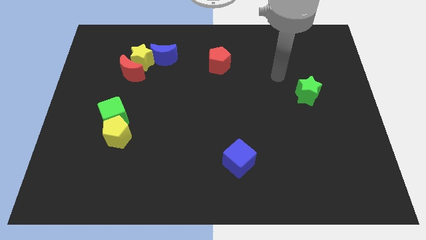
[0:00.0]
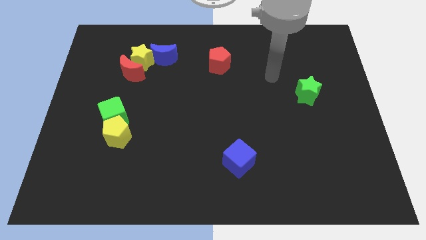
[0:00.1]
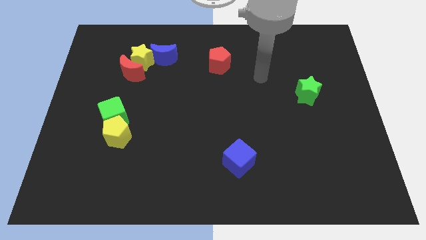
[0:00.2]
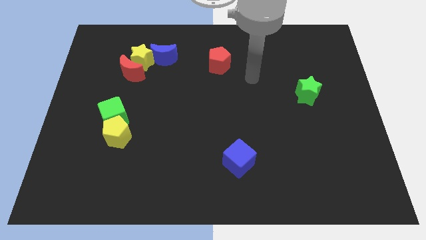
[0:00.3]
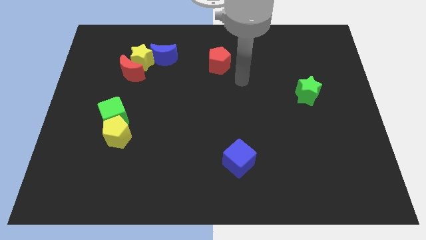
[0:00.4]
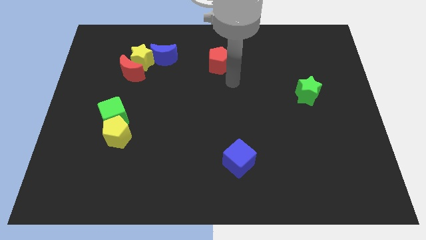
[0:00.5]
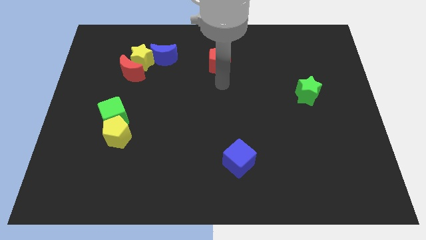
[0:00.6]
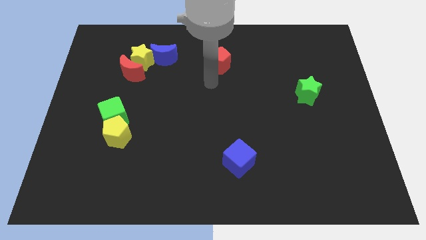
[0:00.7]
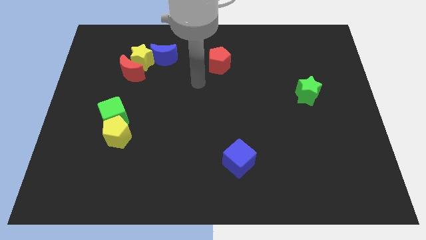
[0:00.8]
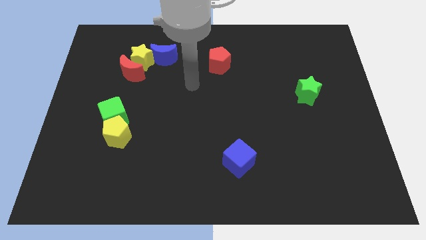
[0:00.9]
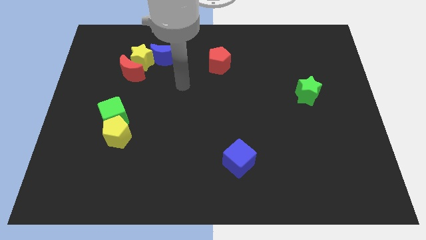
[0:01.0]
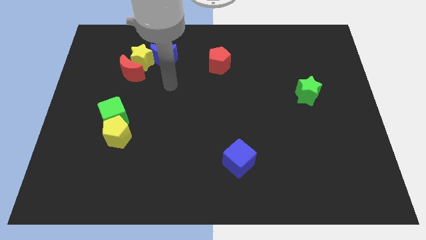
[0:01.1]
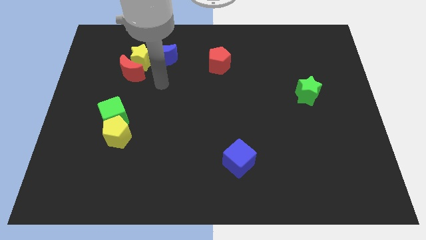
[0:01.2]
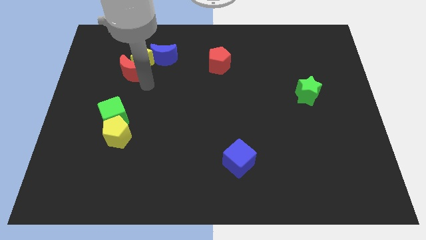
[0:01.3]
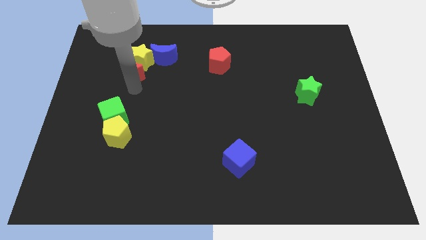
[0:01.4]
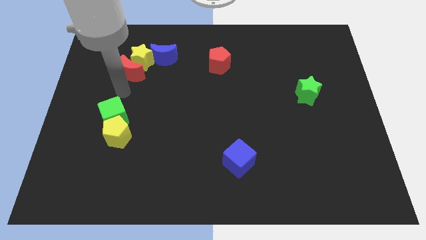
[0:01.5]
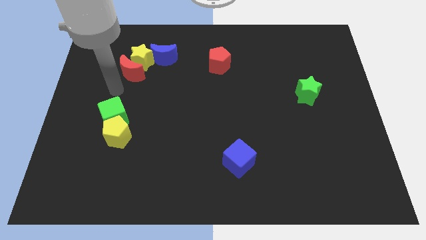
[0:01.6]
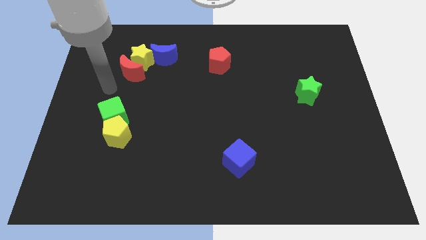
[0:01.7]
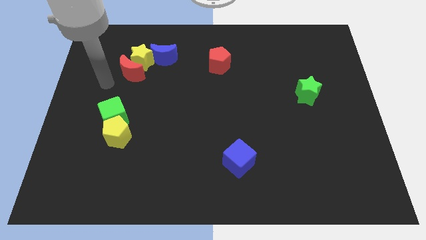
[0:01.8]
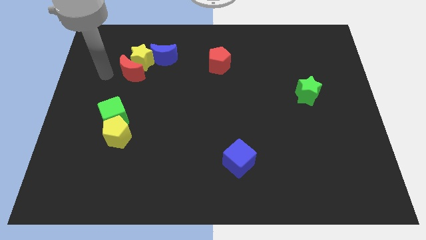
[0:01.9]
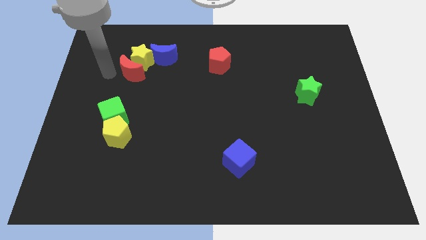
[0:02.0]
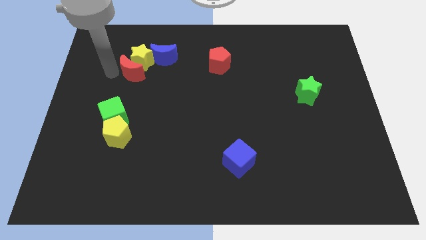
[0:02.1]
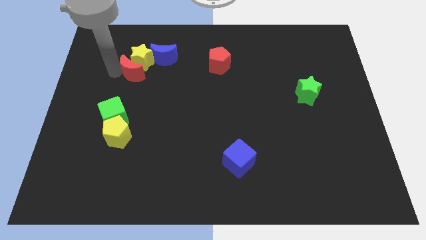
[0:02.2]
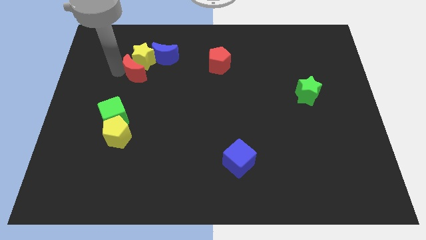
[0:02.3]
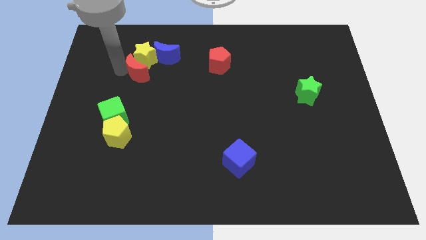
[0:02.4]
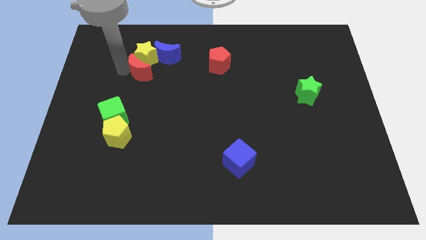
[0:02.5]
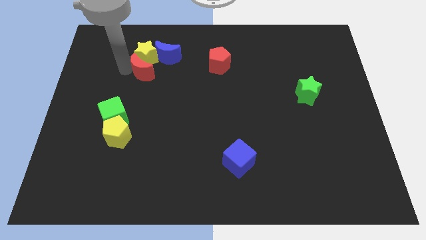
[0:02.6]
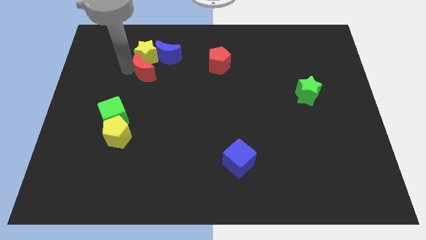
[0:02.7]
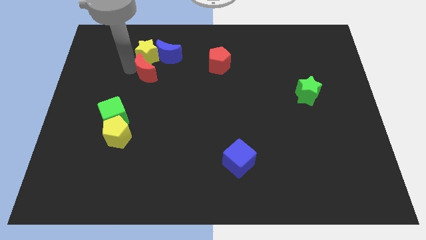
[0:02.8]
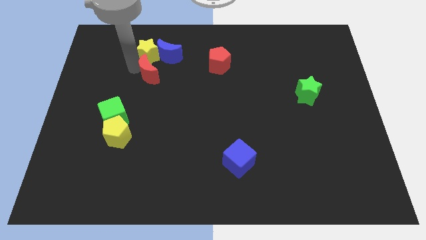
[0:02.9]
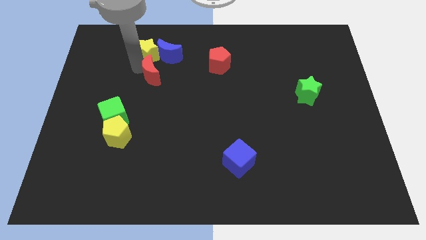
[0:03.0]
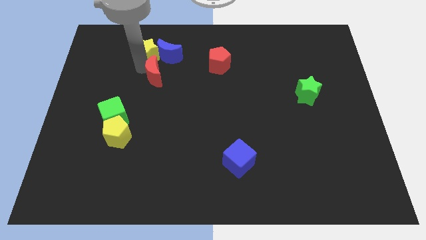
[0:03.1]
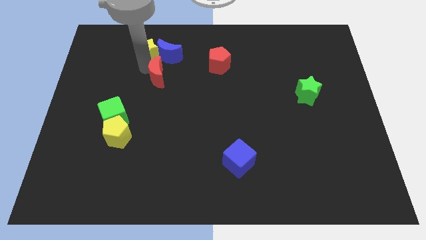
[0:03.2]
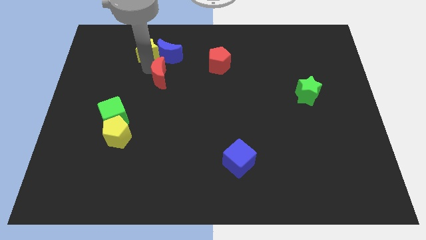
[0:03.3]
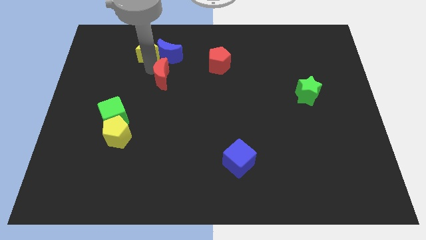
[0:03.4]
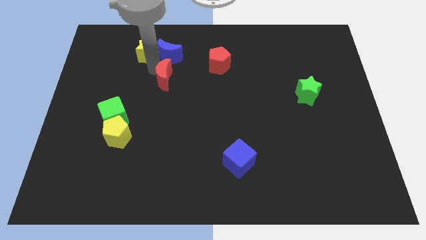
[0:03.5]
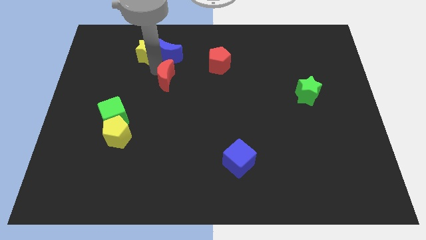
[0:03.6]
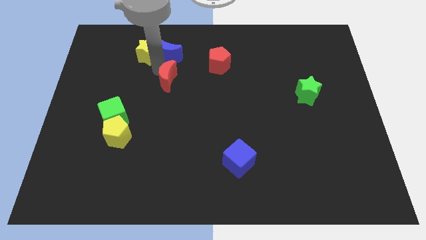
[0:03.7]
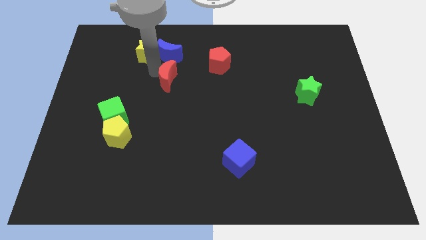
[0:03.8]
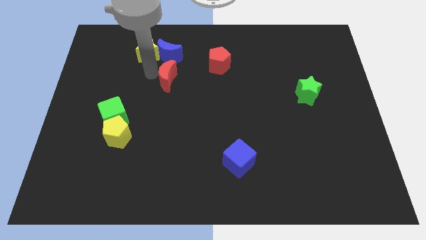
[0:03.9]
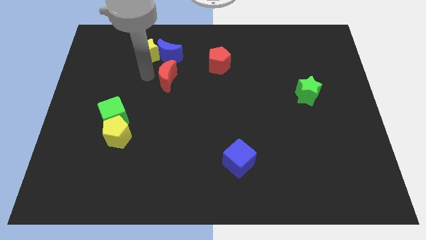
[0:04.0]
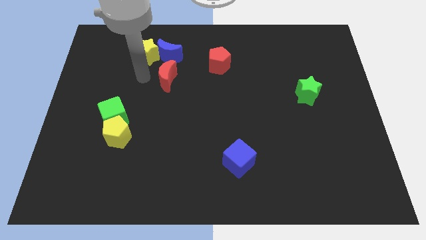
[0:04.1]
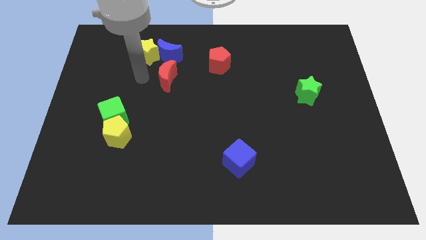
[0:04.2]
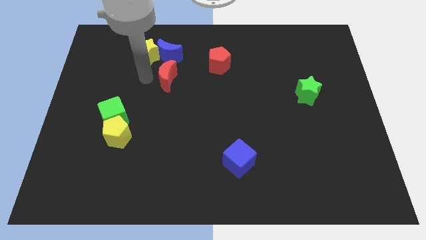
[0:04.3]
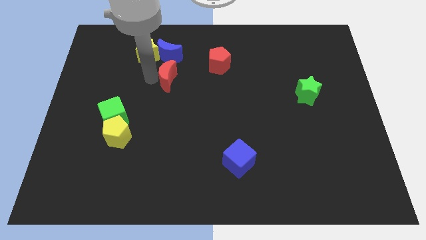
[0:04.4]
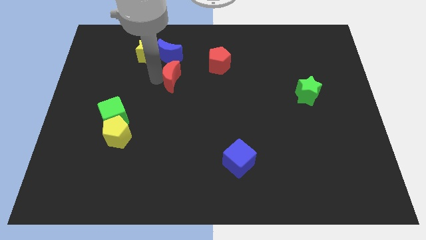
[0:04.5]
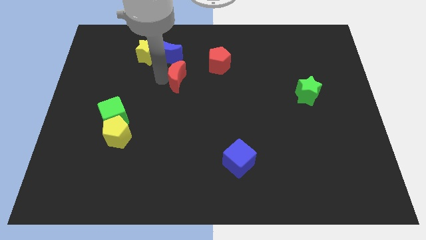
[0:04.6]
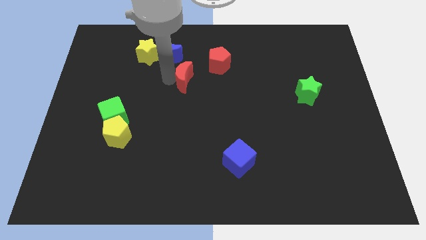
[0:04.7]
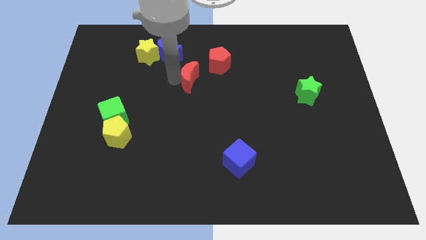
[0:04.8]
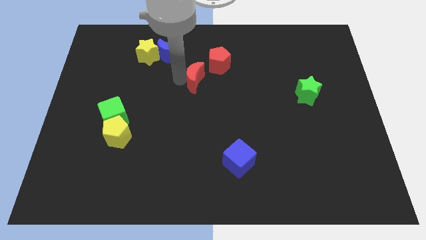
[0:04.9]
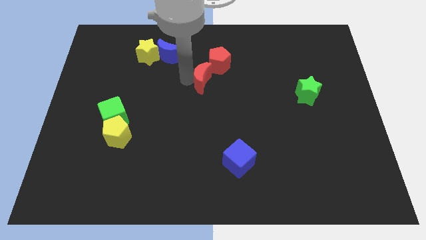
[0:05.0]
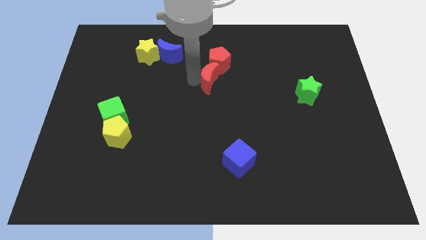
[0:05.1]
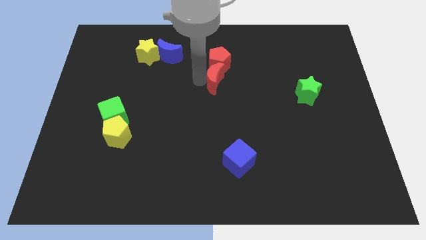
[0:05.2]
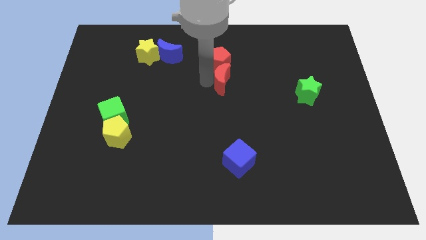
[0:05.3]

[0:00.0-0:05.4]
slide the red moon to the bottom right of the red pentagon

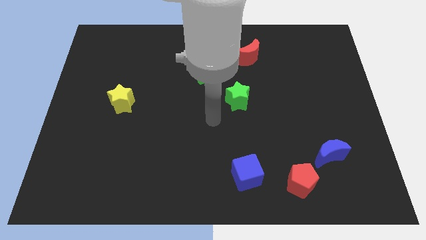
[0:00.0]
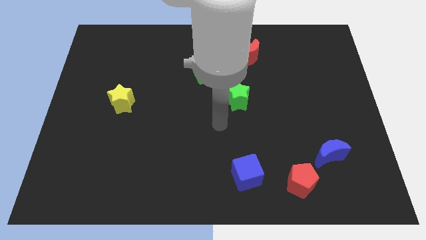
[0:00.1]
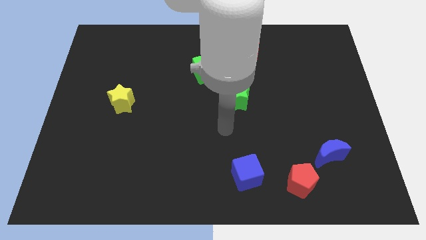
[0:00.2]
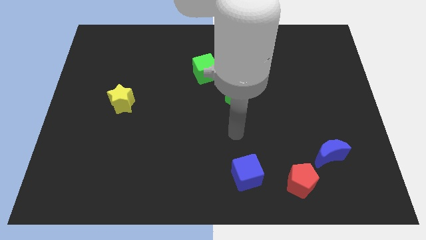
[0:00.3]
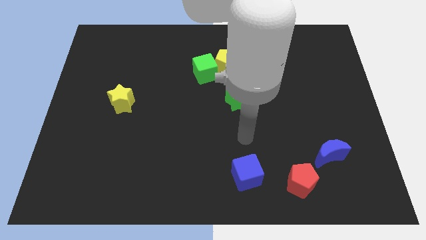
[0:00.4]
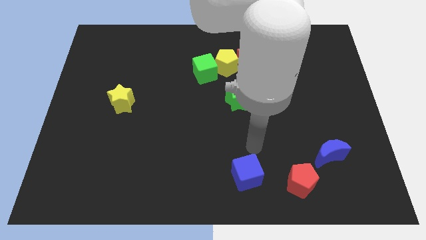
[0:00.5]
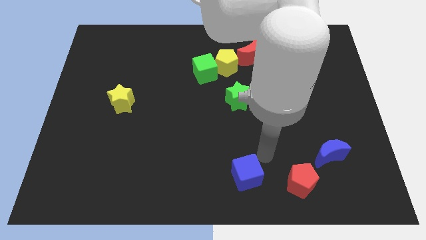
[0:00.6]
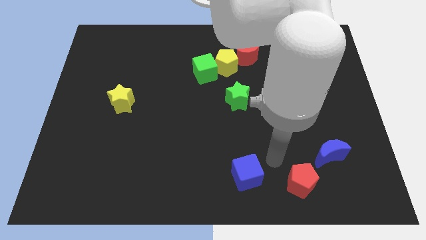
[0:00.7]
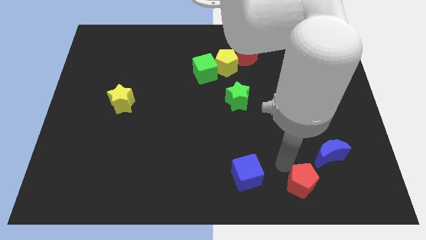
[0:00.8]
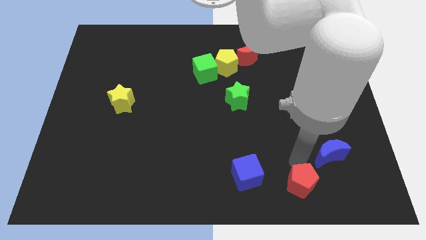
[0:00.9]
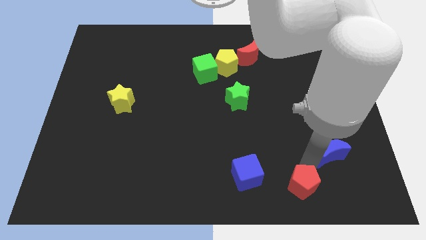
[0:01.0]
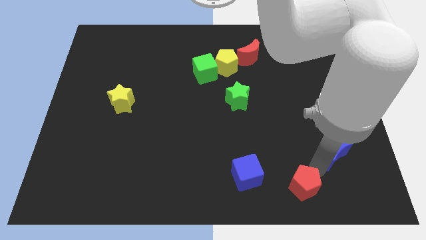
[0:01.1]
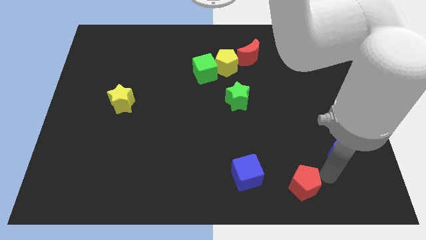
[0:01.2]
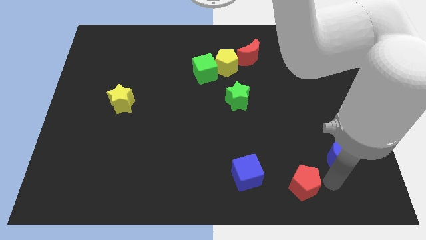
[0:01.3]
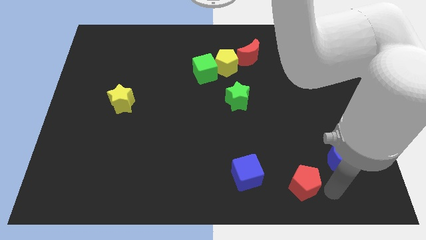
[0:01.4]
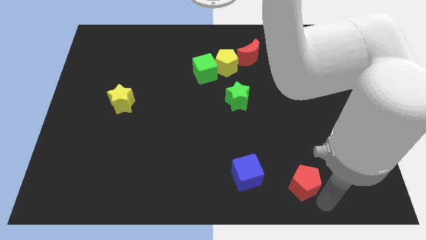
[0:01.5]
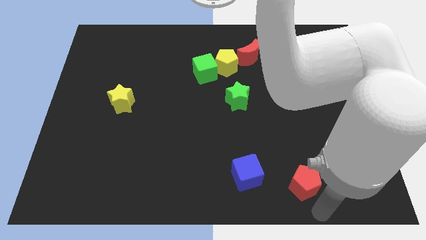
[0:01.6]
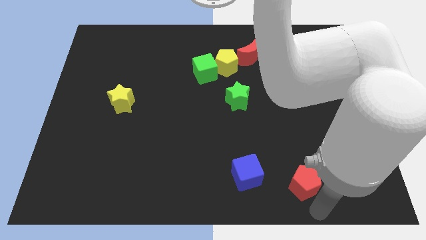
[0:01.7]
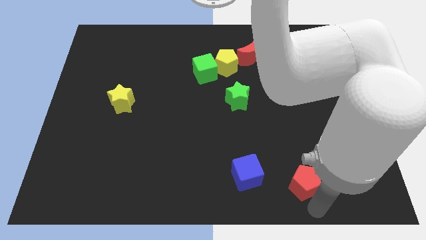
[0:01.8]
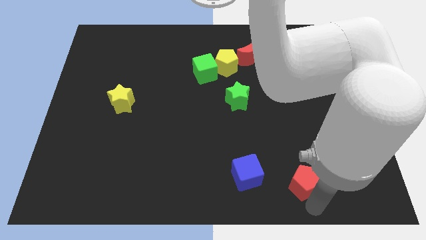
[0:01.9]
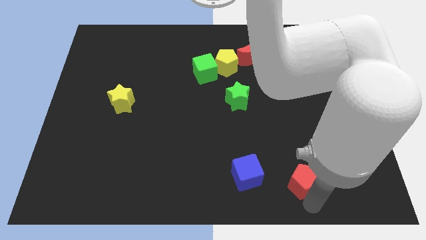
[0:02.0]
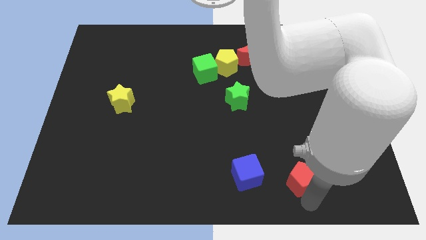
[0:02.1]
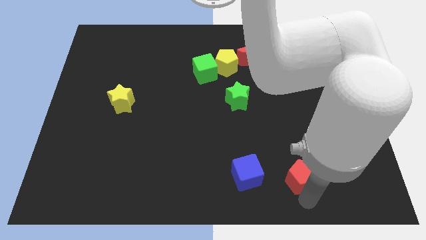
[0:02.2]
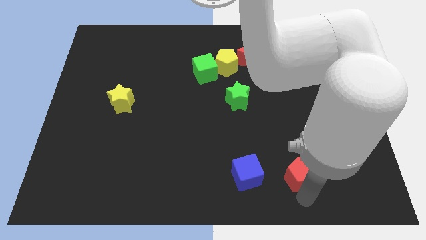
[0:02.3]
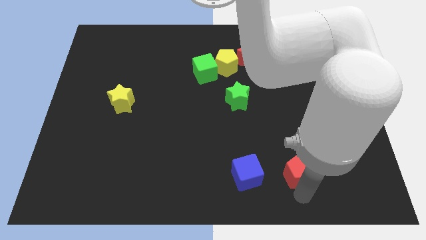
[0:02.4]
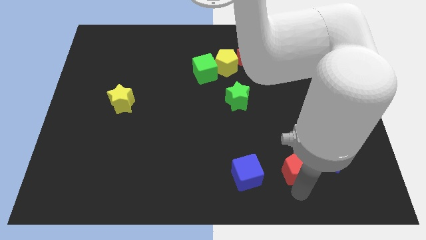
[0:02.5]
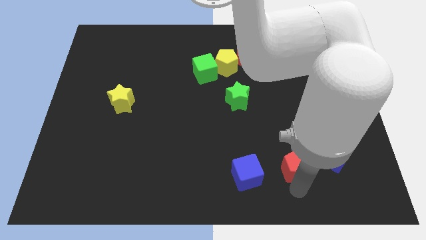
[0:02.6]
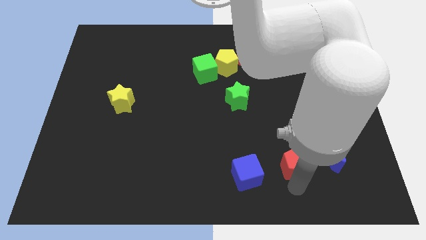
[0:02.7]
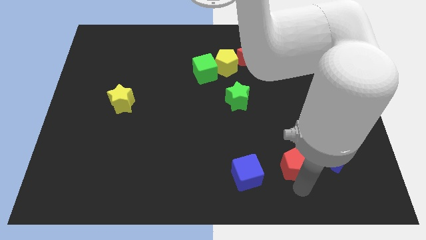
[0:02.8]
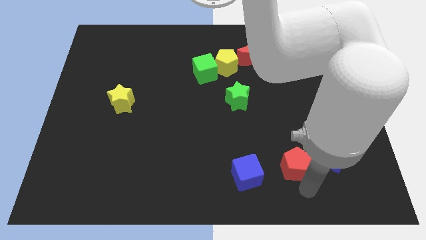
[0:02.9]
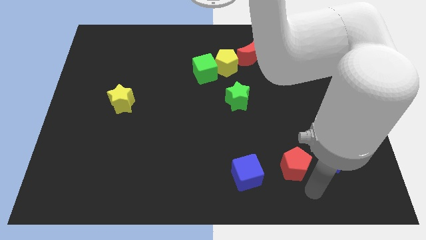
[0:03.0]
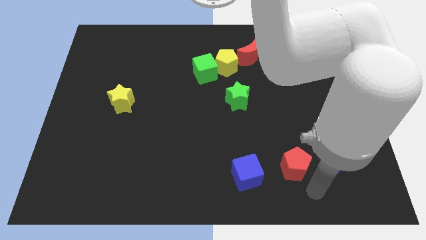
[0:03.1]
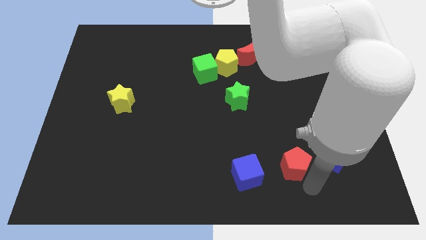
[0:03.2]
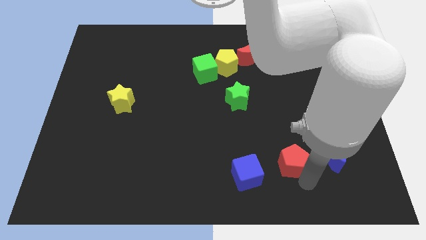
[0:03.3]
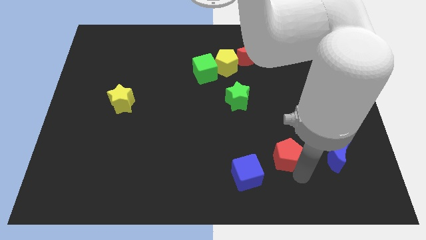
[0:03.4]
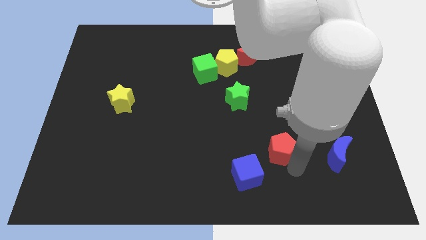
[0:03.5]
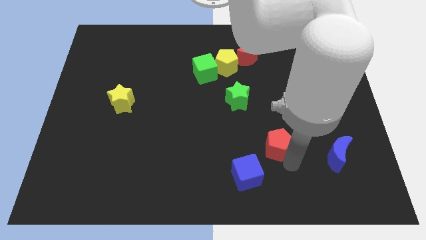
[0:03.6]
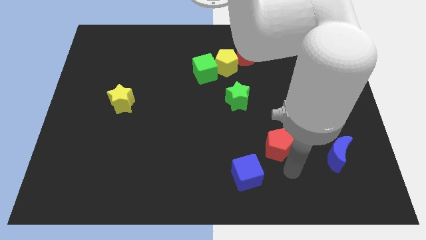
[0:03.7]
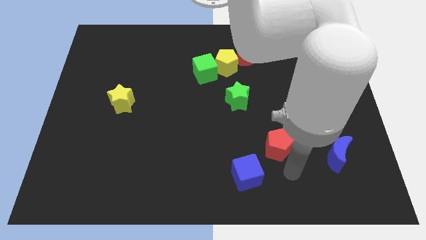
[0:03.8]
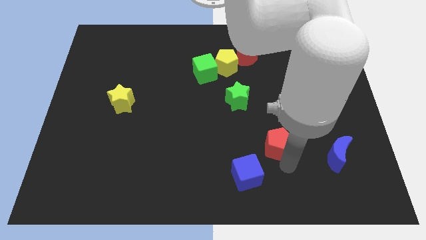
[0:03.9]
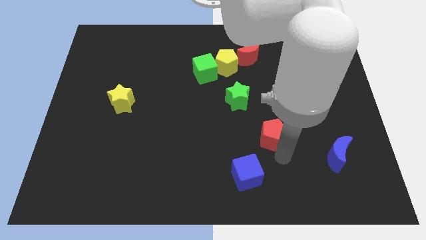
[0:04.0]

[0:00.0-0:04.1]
move the red pentagon diagonally down and to the right of the green star
